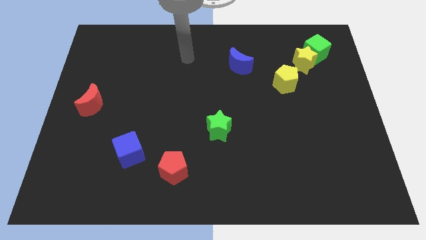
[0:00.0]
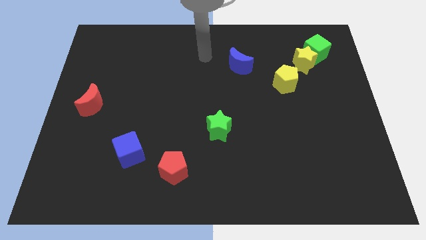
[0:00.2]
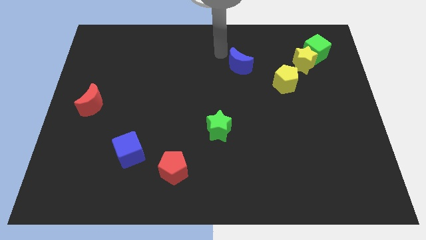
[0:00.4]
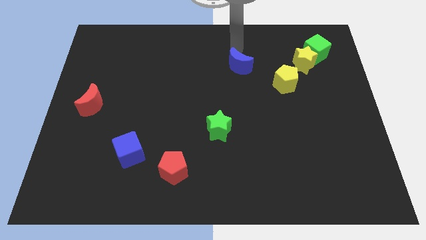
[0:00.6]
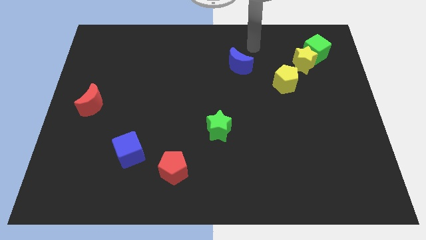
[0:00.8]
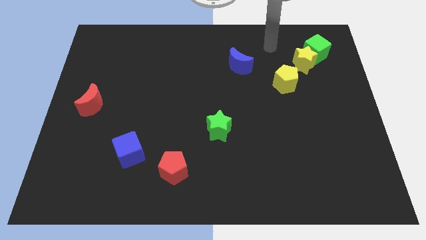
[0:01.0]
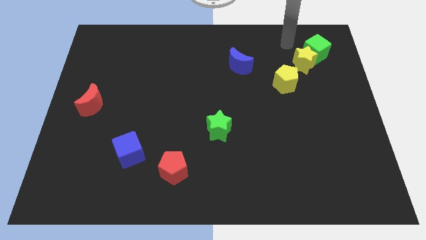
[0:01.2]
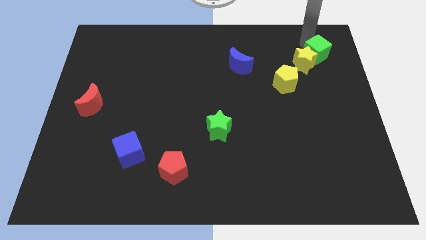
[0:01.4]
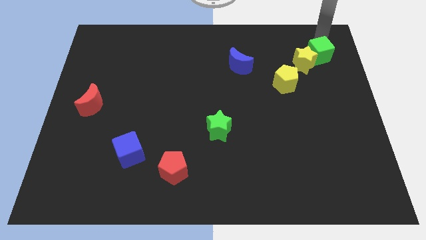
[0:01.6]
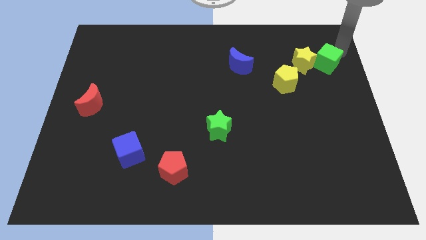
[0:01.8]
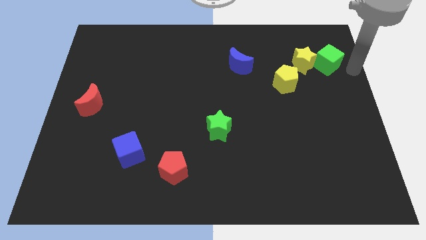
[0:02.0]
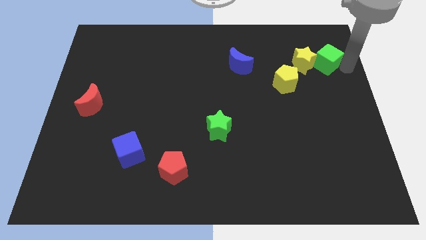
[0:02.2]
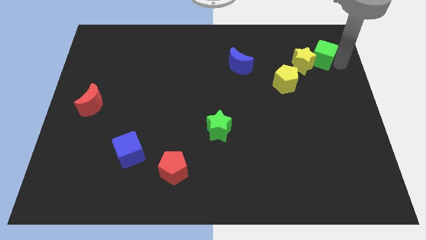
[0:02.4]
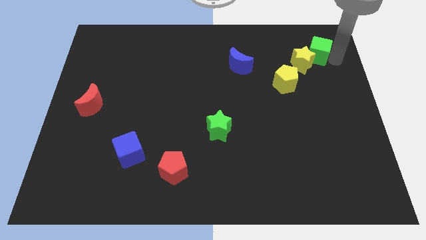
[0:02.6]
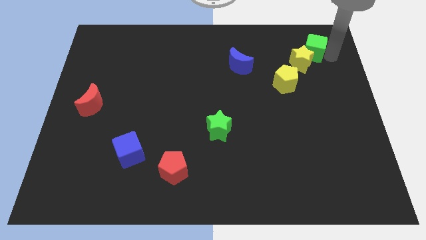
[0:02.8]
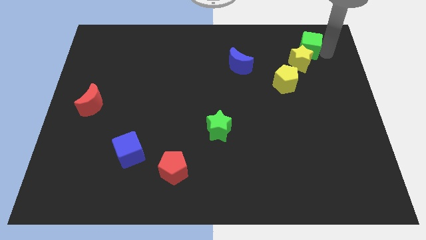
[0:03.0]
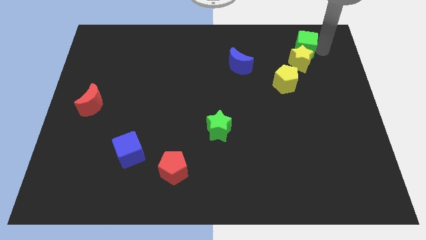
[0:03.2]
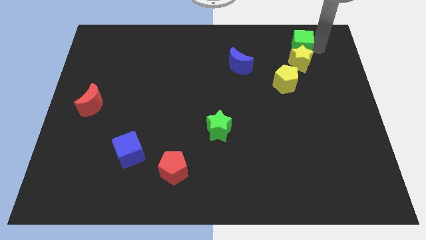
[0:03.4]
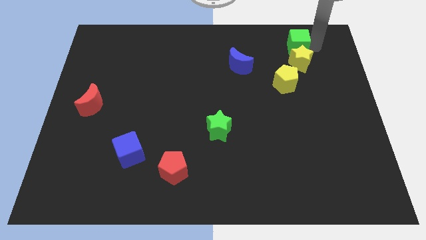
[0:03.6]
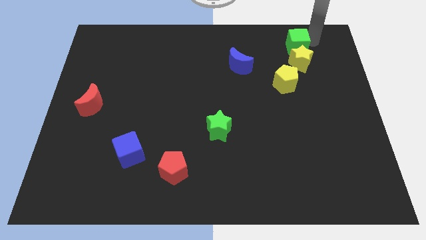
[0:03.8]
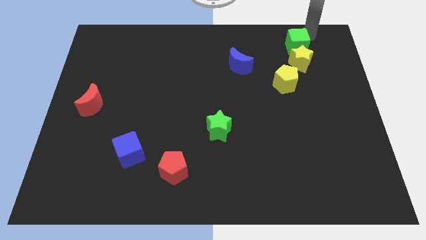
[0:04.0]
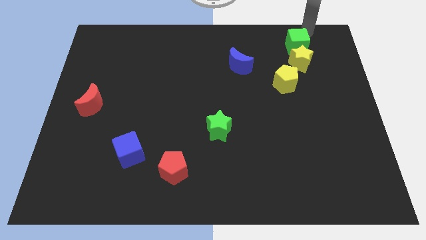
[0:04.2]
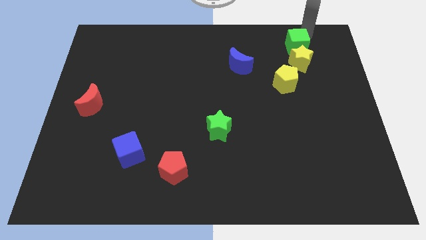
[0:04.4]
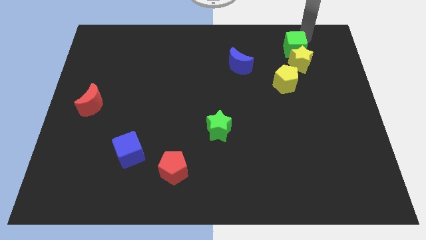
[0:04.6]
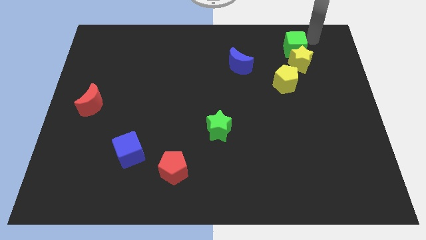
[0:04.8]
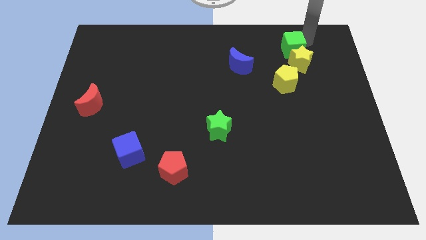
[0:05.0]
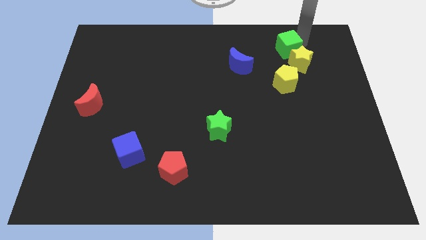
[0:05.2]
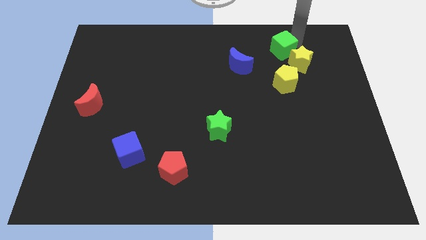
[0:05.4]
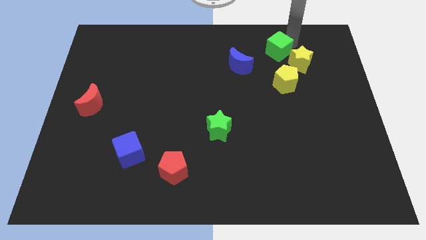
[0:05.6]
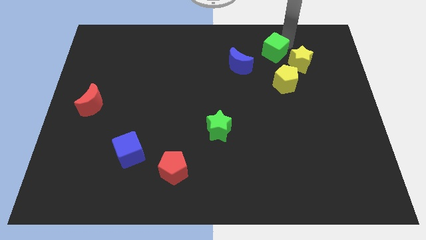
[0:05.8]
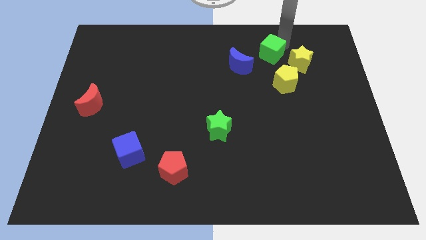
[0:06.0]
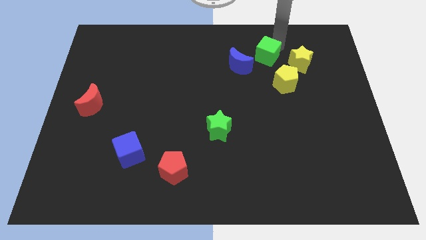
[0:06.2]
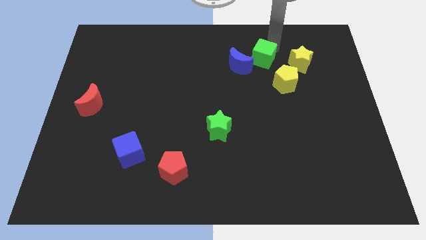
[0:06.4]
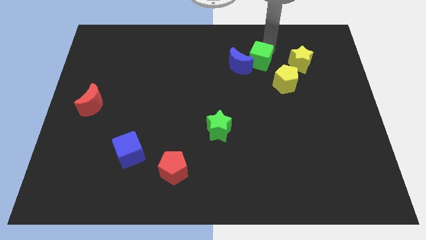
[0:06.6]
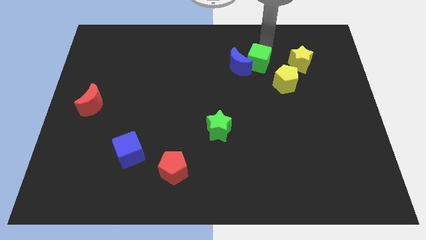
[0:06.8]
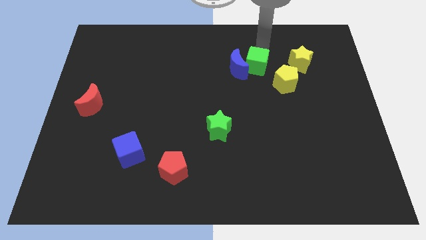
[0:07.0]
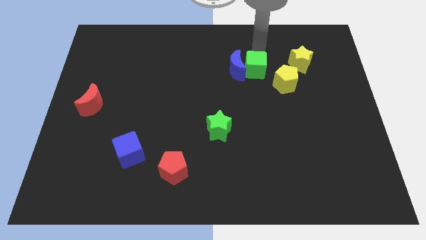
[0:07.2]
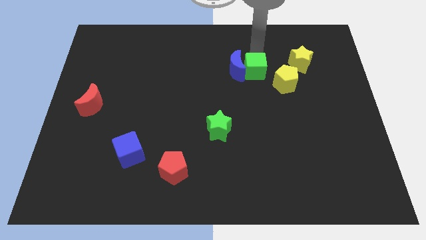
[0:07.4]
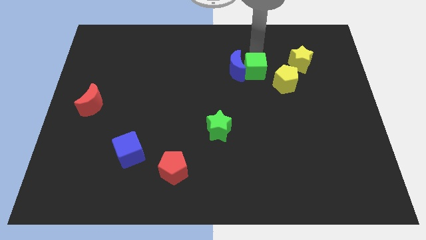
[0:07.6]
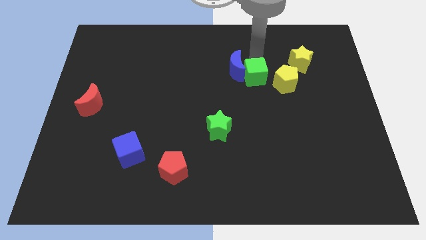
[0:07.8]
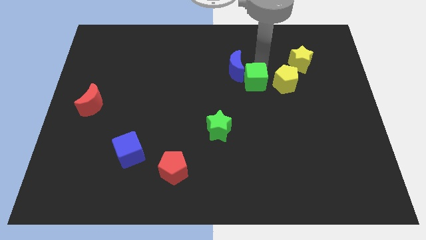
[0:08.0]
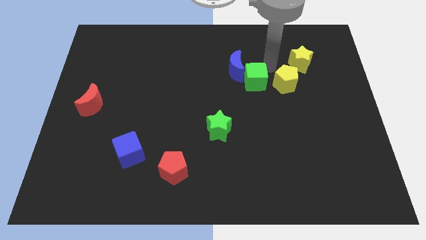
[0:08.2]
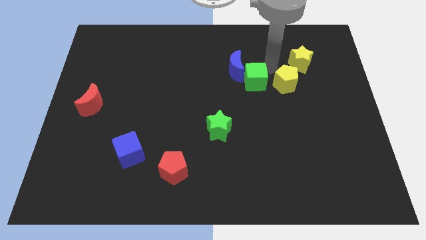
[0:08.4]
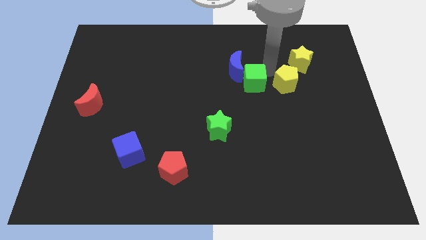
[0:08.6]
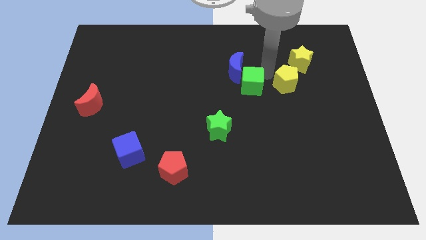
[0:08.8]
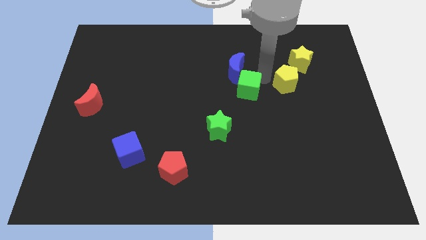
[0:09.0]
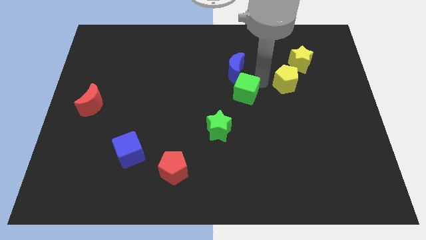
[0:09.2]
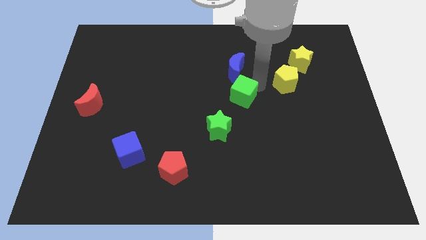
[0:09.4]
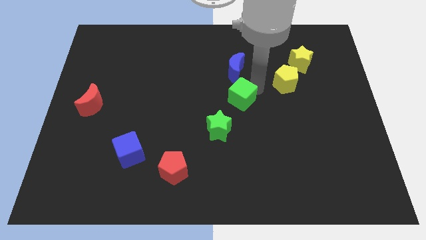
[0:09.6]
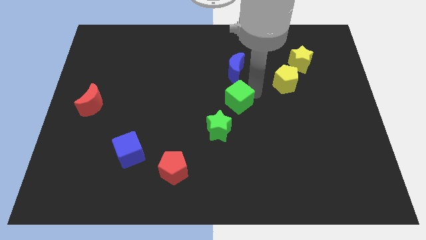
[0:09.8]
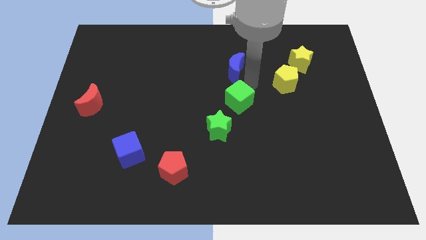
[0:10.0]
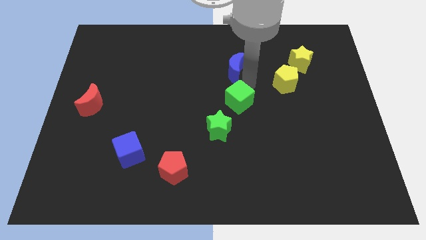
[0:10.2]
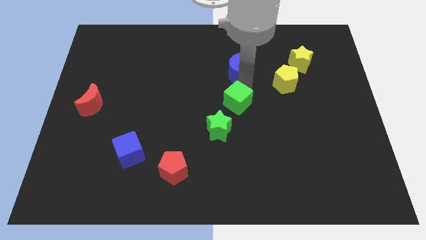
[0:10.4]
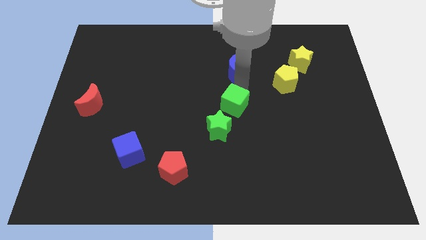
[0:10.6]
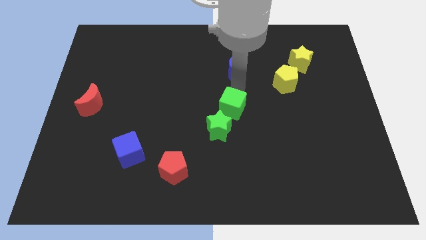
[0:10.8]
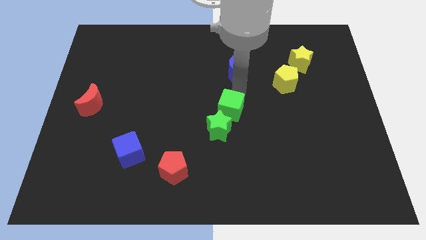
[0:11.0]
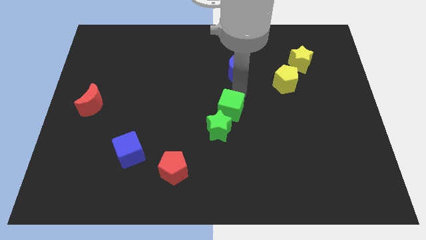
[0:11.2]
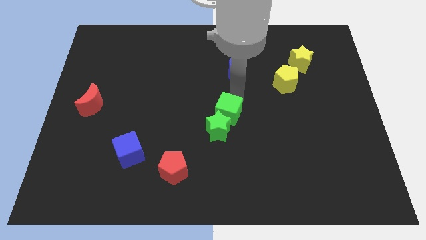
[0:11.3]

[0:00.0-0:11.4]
push the green cube next to the green star

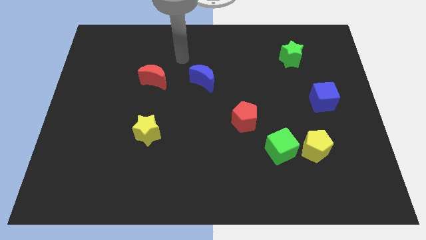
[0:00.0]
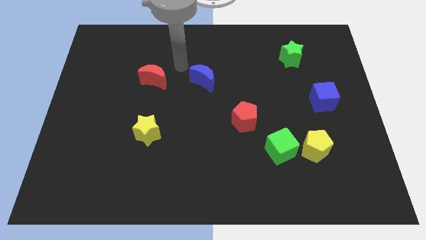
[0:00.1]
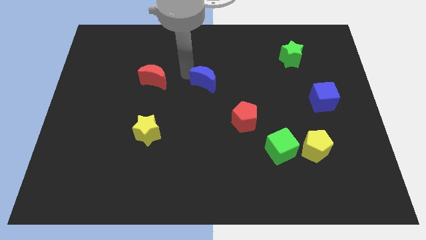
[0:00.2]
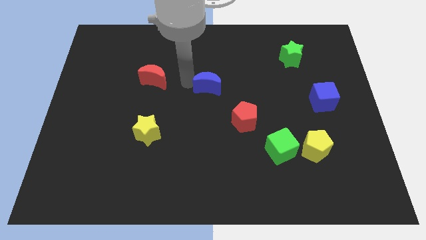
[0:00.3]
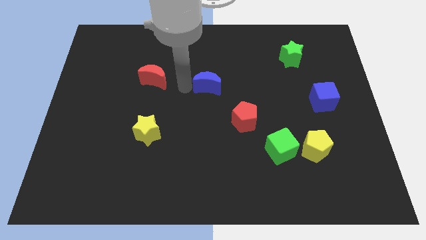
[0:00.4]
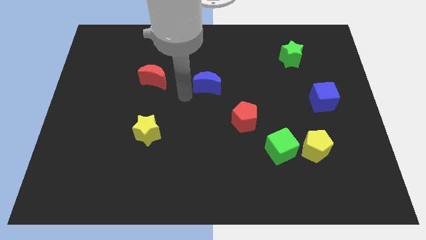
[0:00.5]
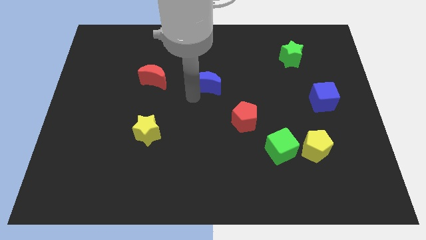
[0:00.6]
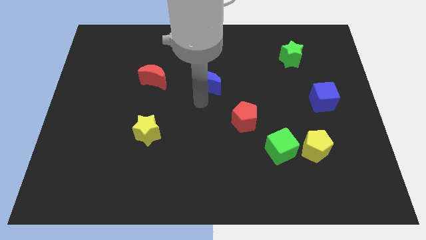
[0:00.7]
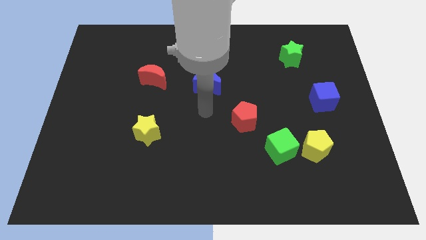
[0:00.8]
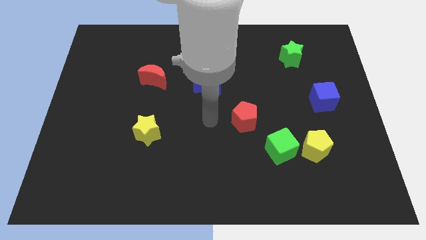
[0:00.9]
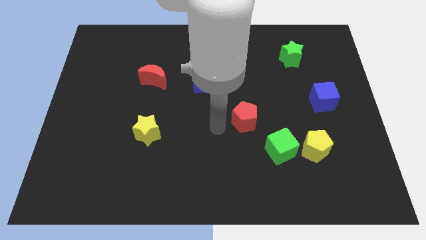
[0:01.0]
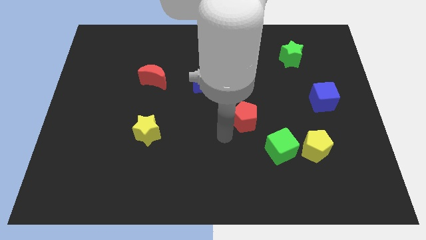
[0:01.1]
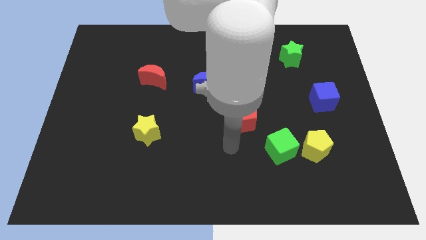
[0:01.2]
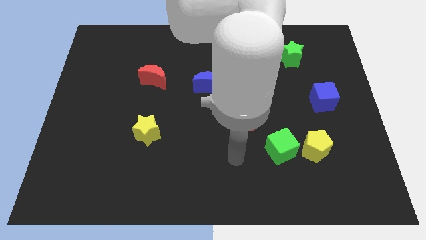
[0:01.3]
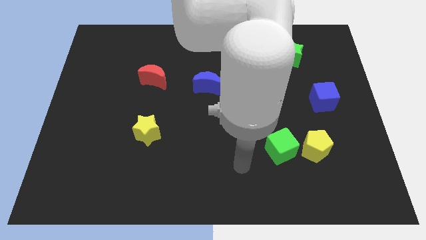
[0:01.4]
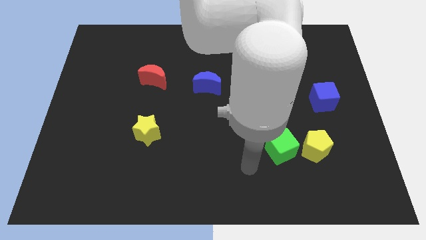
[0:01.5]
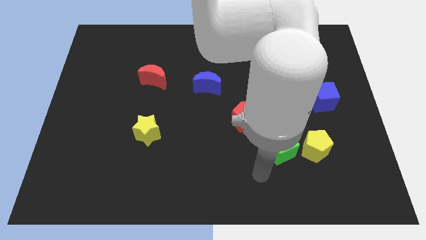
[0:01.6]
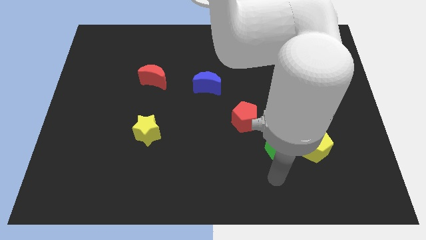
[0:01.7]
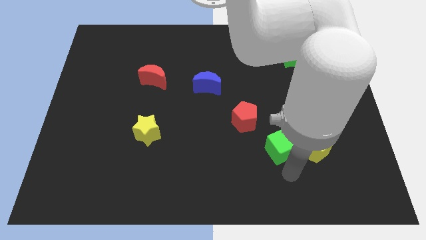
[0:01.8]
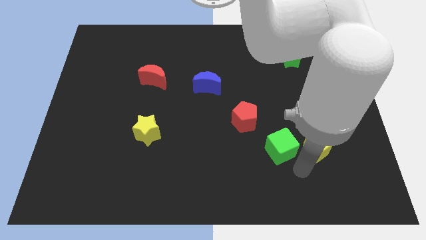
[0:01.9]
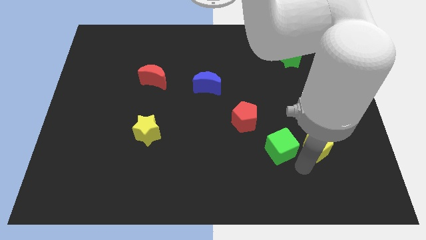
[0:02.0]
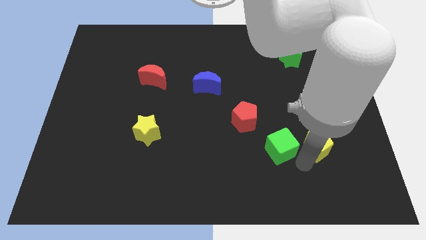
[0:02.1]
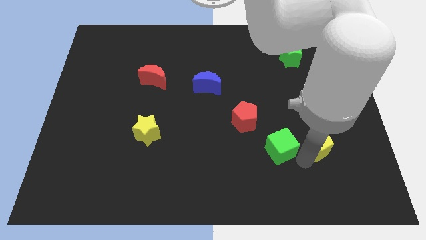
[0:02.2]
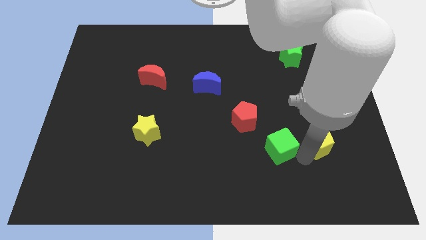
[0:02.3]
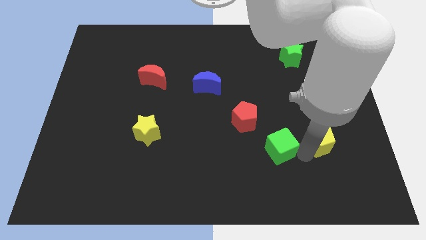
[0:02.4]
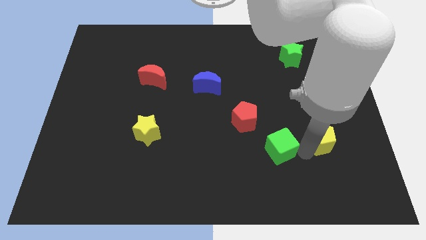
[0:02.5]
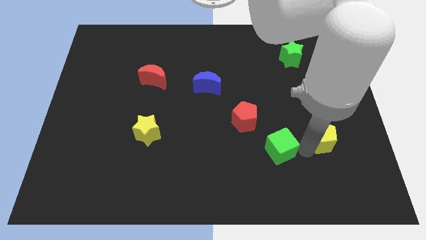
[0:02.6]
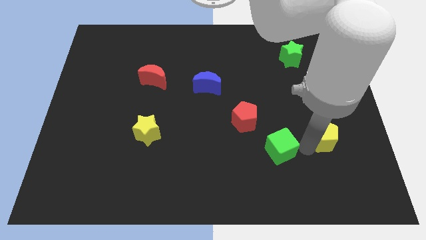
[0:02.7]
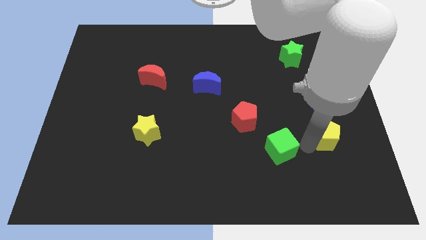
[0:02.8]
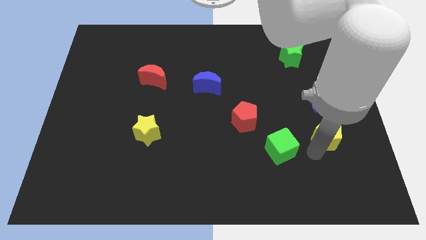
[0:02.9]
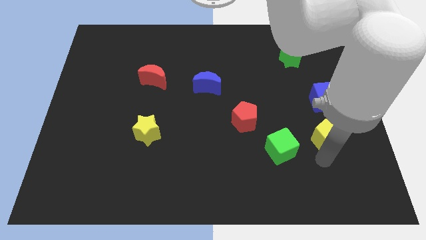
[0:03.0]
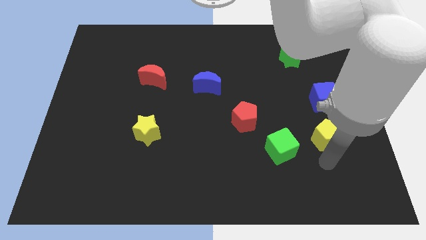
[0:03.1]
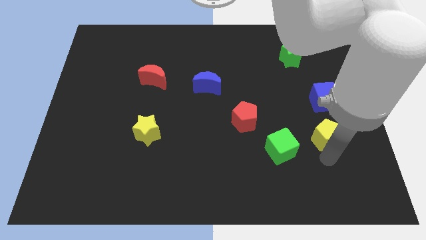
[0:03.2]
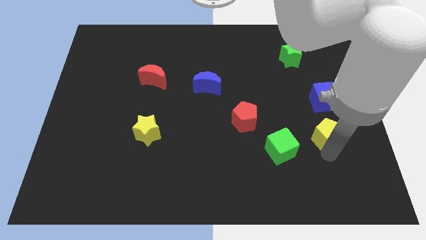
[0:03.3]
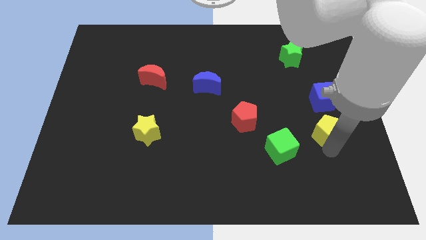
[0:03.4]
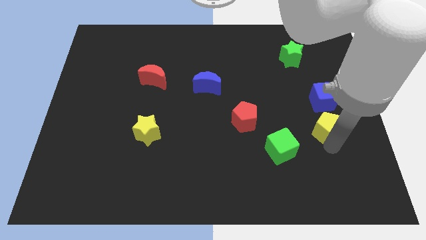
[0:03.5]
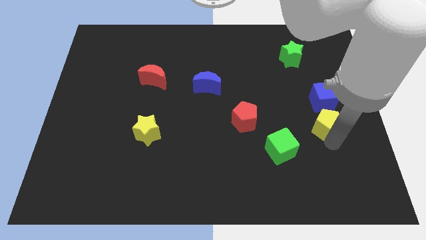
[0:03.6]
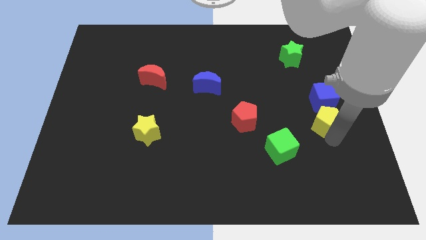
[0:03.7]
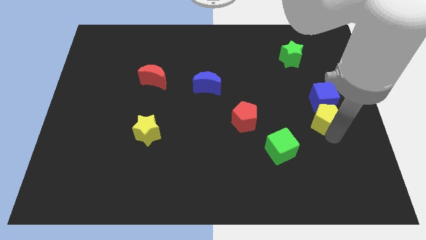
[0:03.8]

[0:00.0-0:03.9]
push the yellow pentagon to the blue cube
